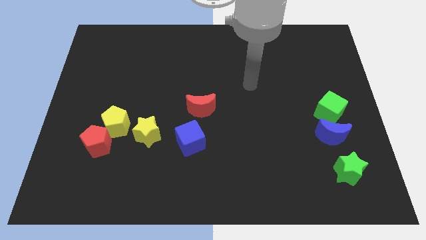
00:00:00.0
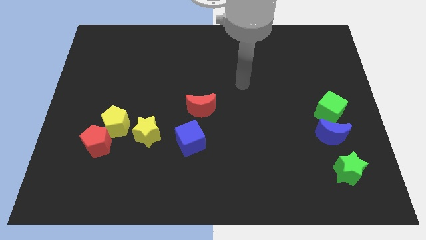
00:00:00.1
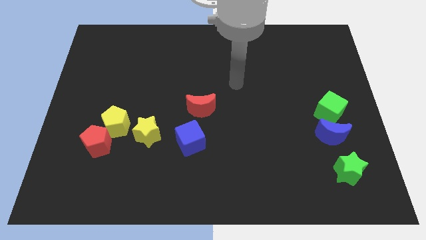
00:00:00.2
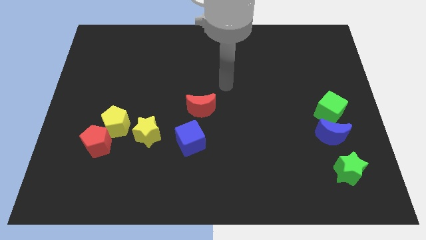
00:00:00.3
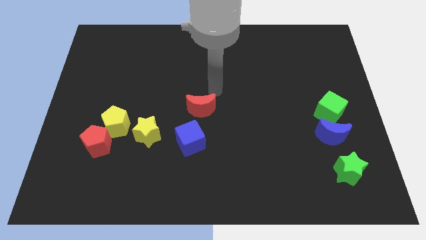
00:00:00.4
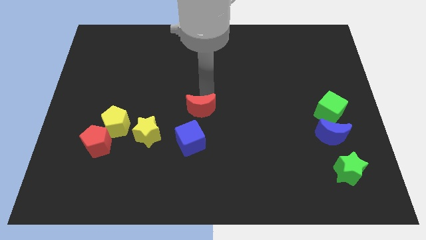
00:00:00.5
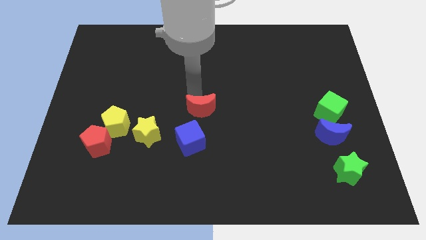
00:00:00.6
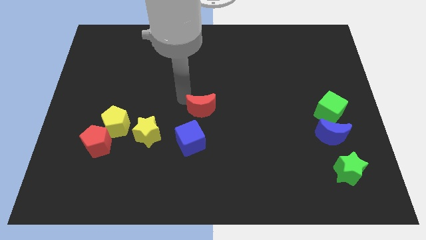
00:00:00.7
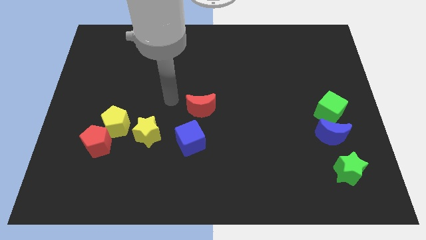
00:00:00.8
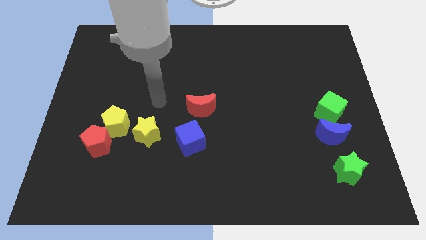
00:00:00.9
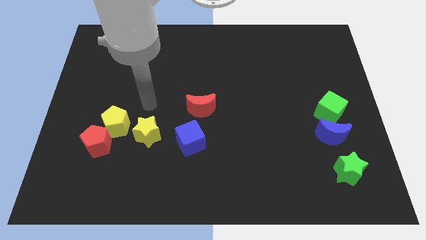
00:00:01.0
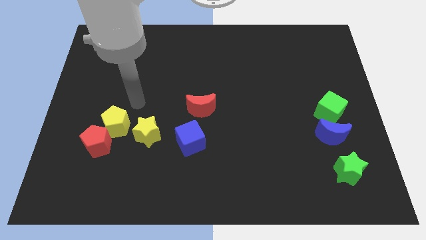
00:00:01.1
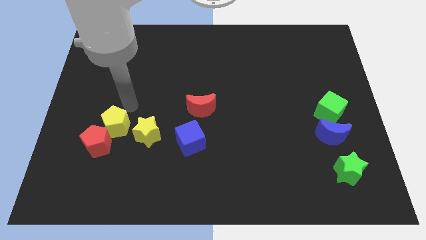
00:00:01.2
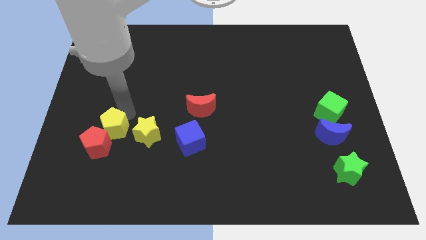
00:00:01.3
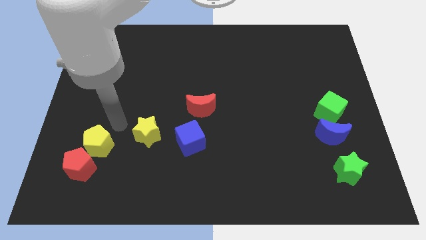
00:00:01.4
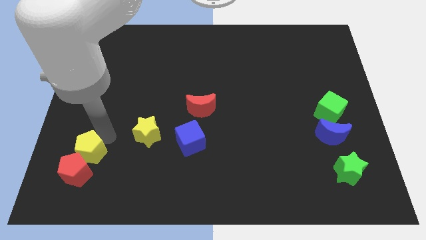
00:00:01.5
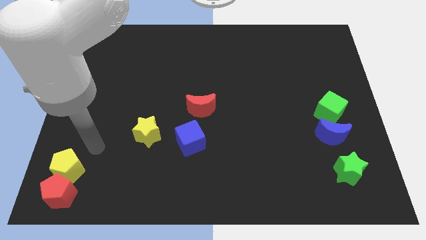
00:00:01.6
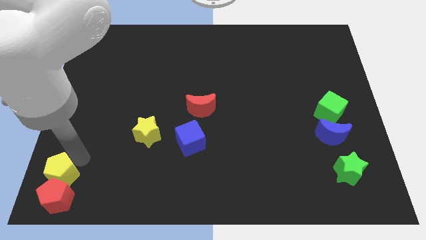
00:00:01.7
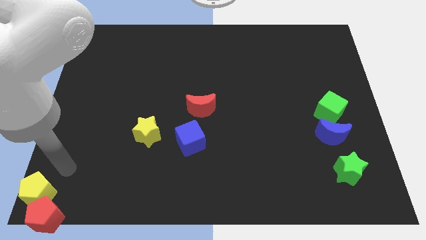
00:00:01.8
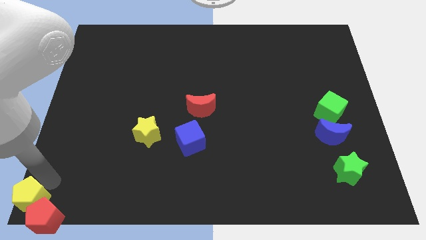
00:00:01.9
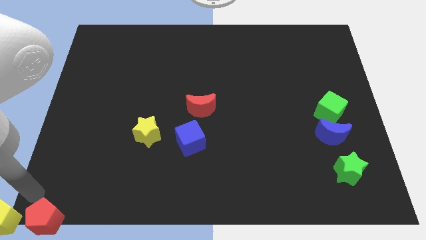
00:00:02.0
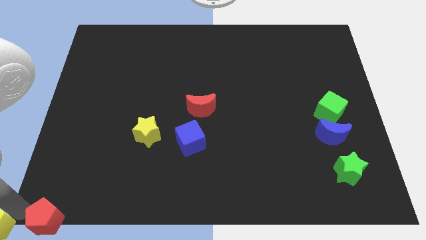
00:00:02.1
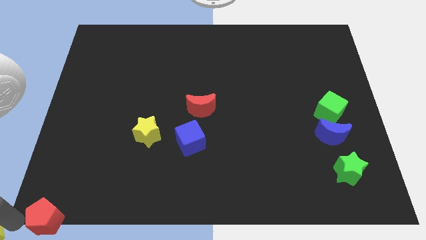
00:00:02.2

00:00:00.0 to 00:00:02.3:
move the red pentagon away from the yellow pentagon

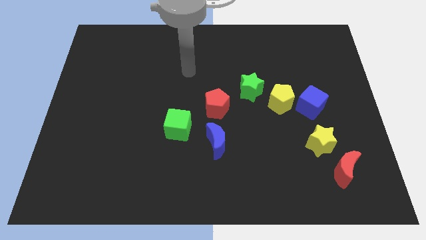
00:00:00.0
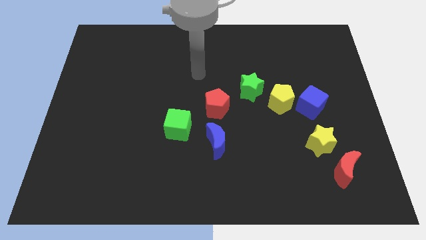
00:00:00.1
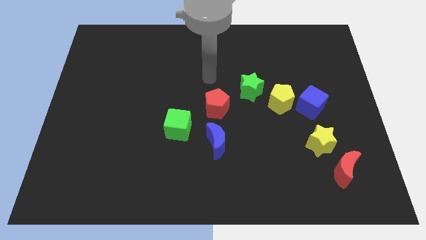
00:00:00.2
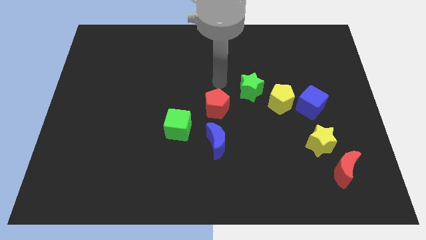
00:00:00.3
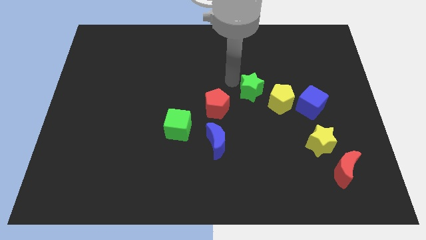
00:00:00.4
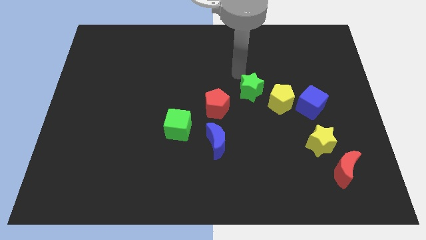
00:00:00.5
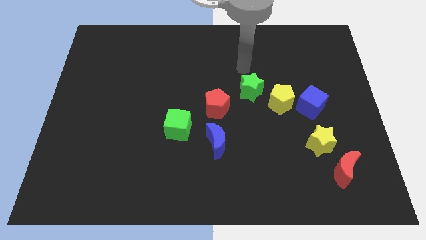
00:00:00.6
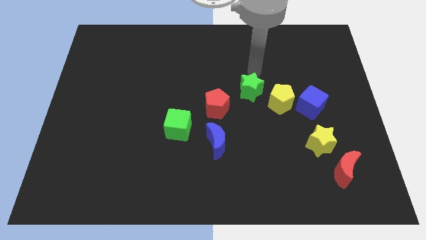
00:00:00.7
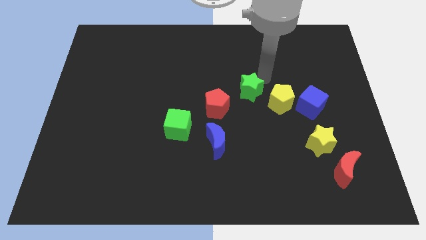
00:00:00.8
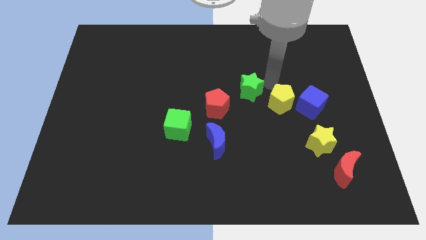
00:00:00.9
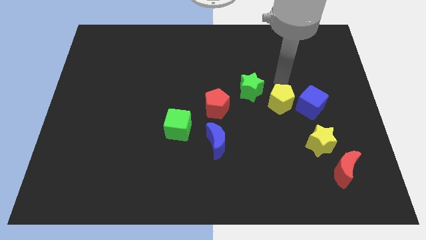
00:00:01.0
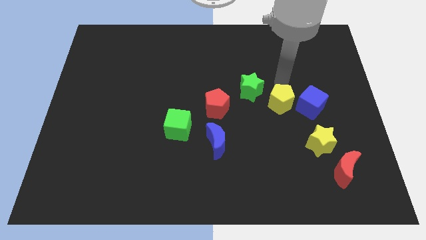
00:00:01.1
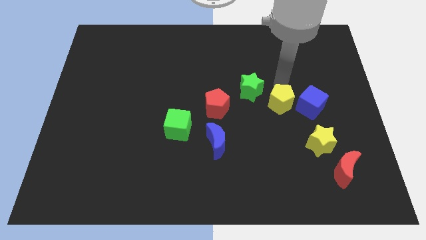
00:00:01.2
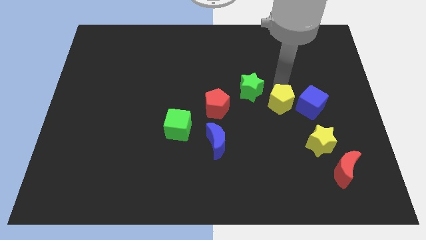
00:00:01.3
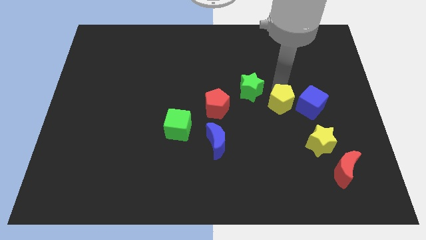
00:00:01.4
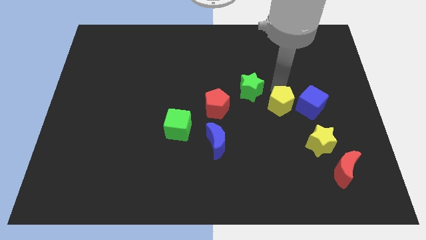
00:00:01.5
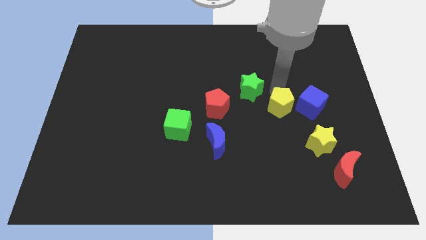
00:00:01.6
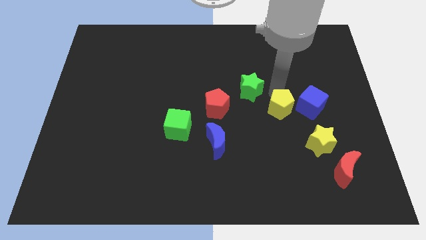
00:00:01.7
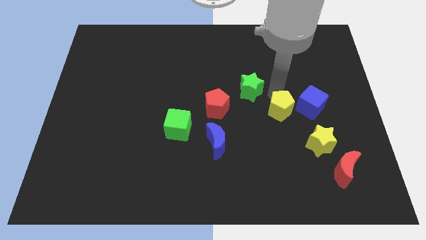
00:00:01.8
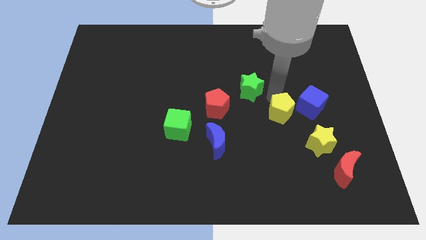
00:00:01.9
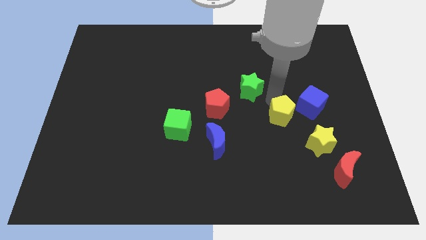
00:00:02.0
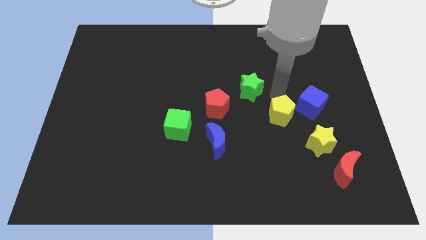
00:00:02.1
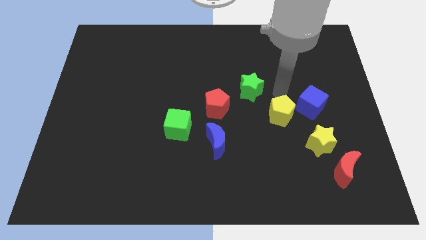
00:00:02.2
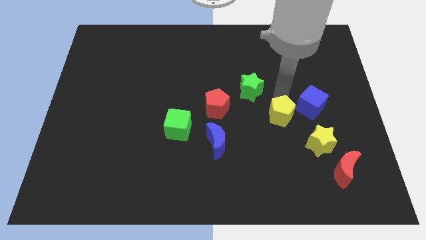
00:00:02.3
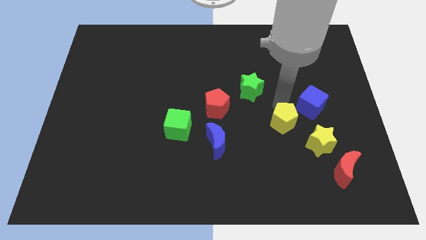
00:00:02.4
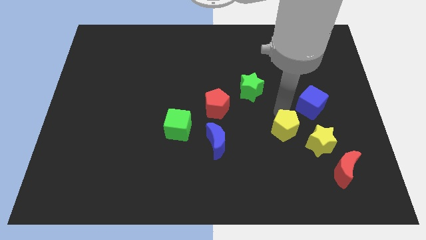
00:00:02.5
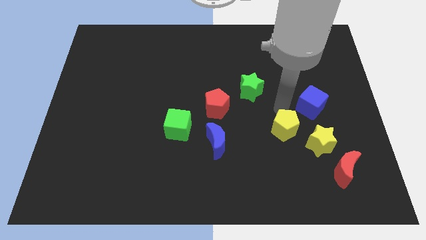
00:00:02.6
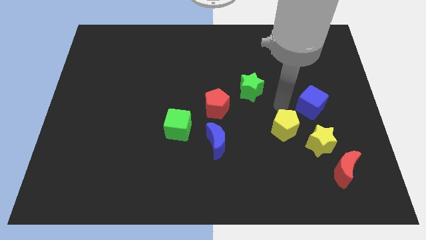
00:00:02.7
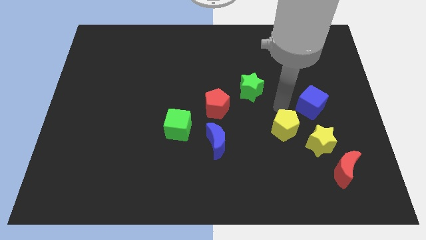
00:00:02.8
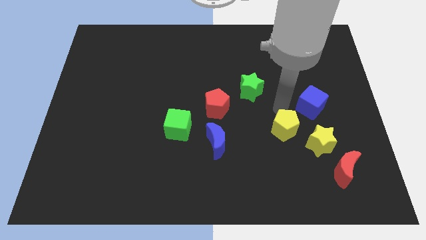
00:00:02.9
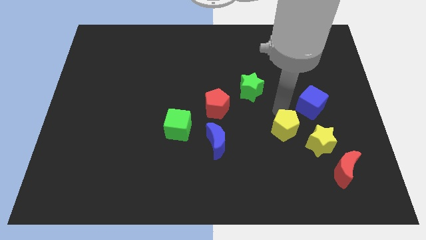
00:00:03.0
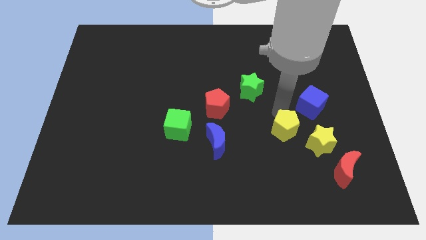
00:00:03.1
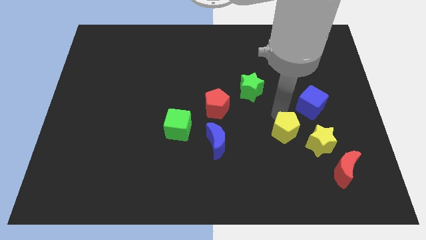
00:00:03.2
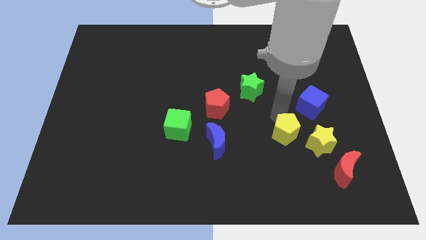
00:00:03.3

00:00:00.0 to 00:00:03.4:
pull the yellow pentagon apart from the blue cube and green star

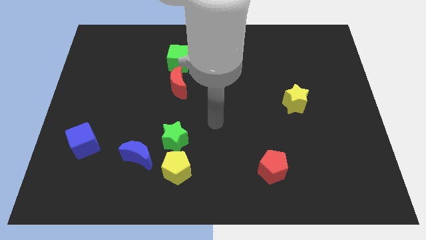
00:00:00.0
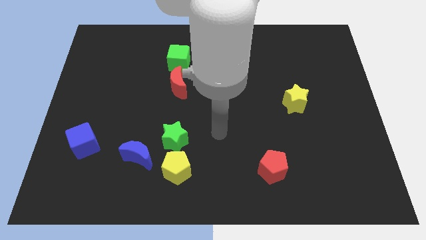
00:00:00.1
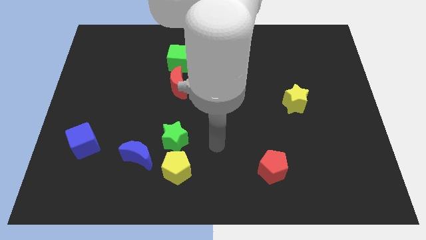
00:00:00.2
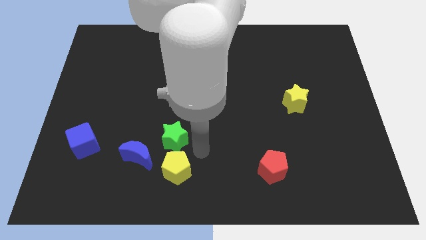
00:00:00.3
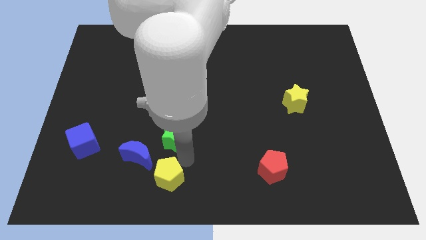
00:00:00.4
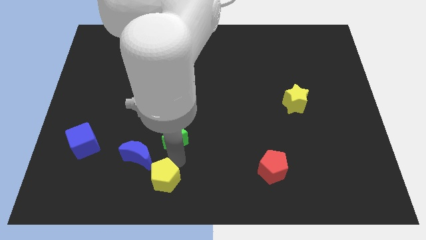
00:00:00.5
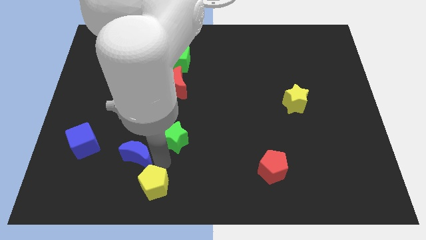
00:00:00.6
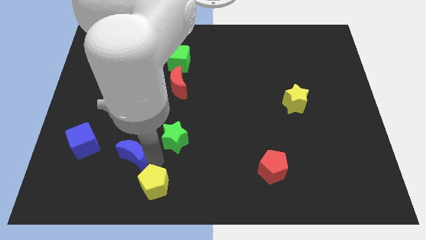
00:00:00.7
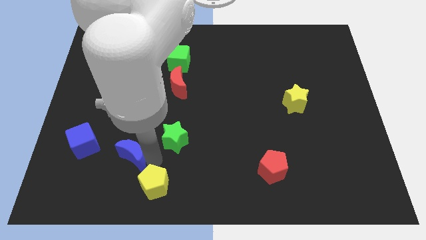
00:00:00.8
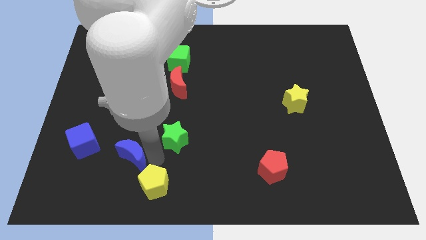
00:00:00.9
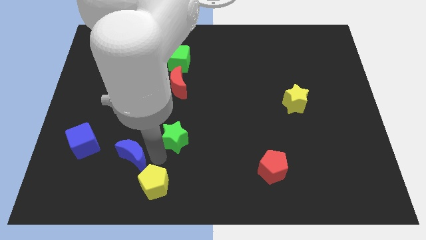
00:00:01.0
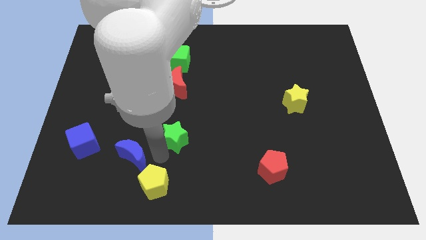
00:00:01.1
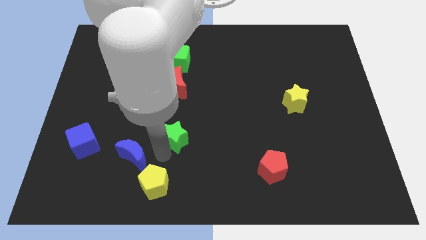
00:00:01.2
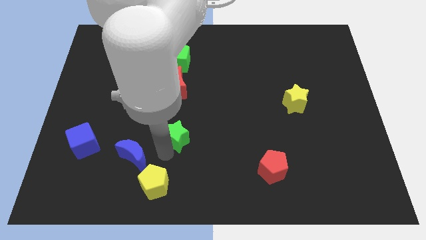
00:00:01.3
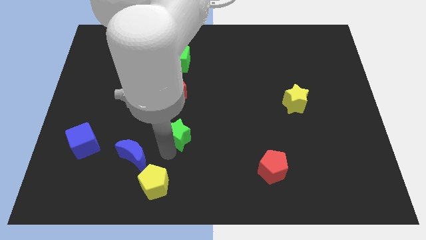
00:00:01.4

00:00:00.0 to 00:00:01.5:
move the green star away from the yellow pentagon and blue moon

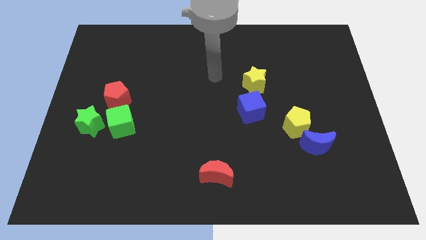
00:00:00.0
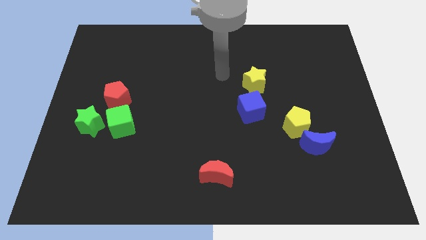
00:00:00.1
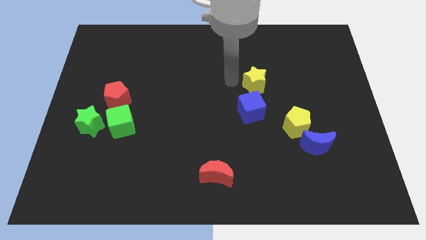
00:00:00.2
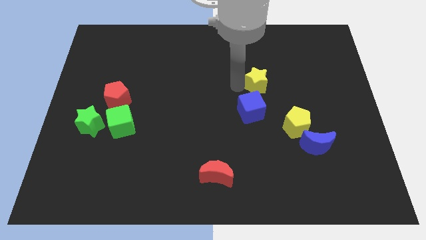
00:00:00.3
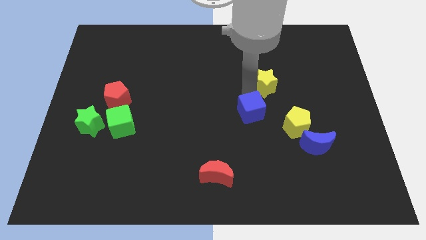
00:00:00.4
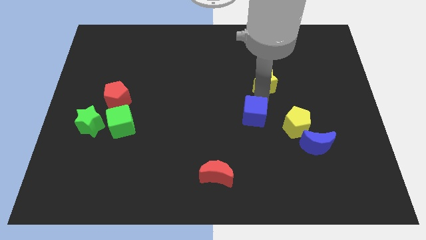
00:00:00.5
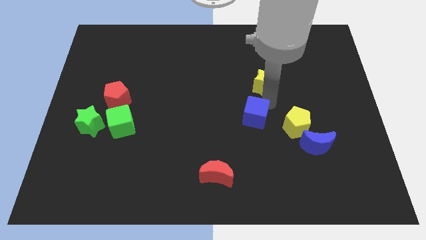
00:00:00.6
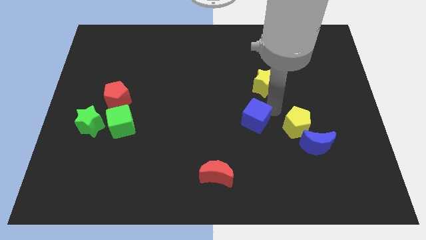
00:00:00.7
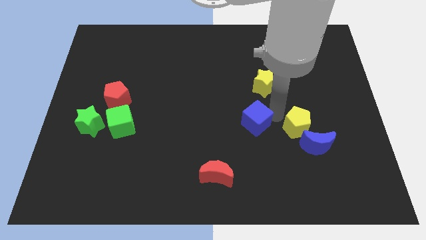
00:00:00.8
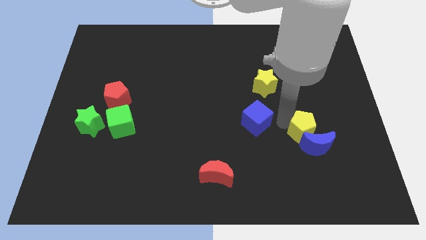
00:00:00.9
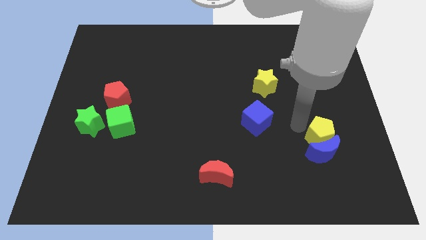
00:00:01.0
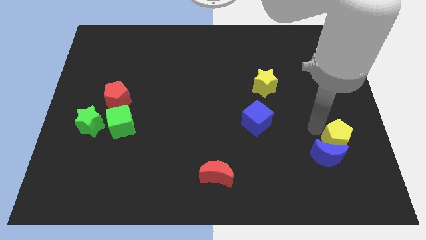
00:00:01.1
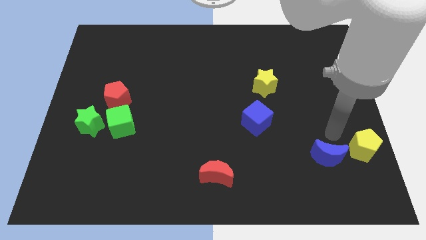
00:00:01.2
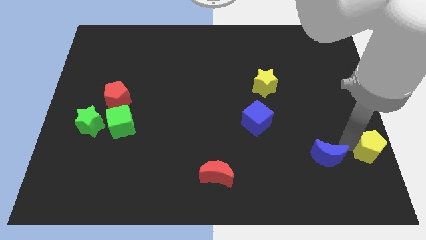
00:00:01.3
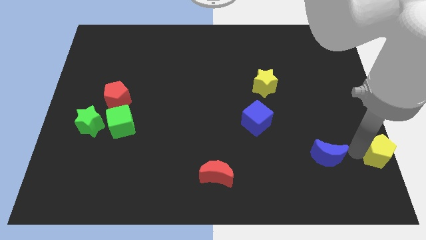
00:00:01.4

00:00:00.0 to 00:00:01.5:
move the blue moon away from the yellow pentagon

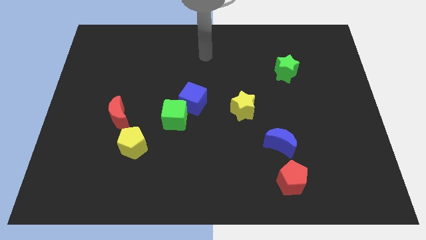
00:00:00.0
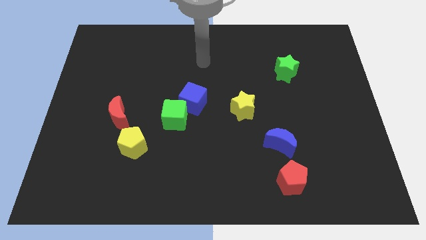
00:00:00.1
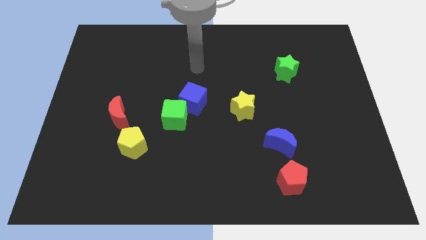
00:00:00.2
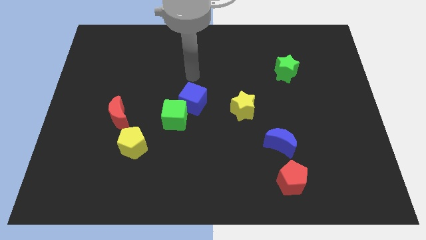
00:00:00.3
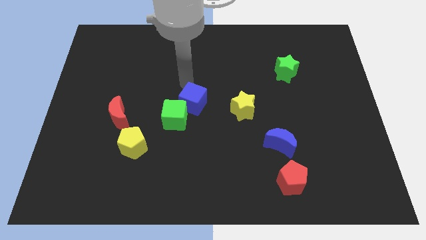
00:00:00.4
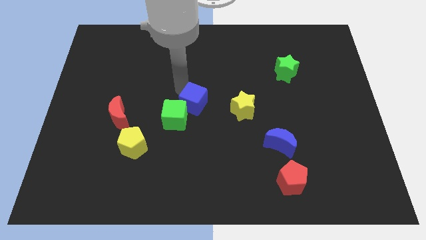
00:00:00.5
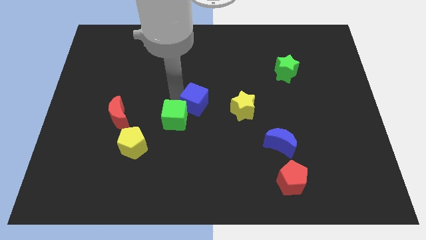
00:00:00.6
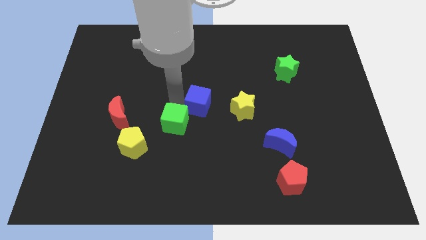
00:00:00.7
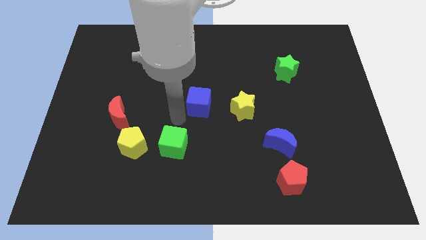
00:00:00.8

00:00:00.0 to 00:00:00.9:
pull the blue cube apart from the green cube
